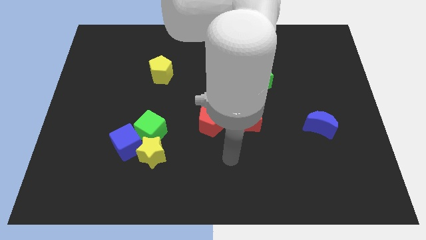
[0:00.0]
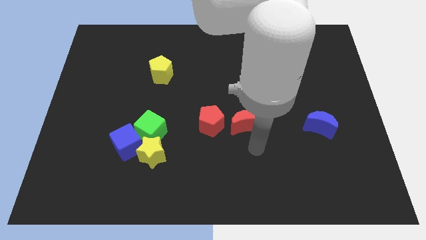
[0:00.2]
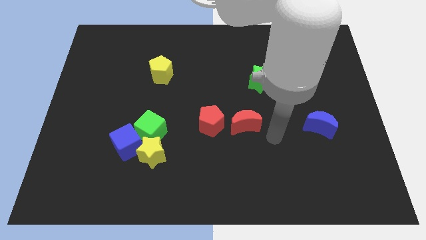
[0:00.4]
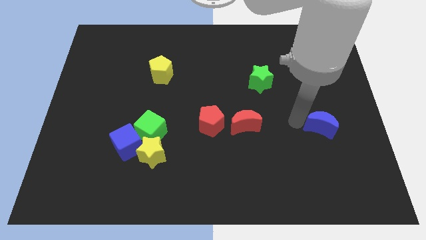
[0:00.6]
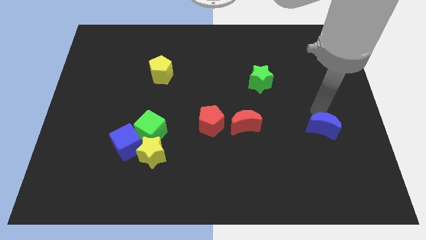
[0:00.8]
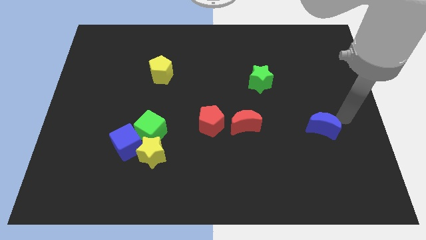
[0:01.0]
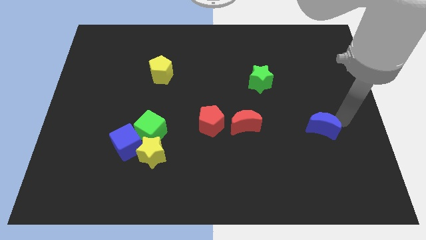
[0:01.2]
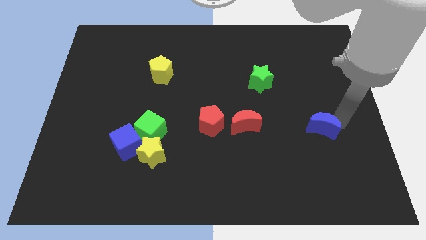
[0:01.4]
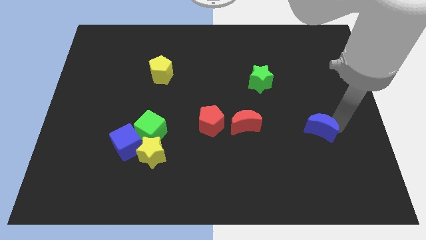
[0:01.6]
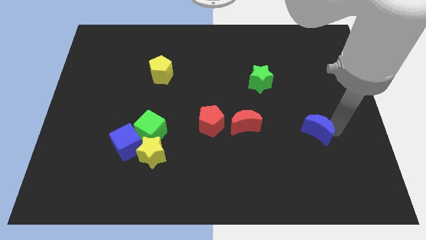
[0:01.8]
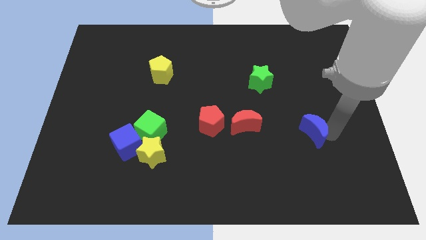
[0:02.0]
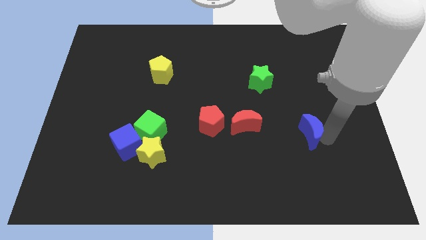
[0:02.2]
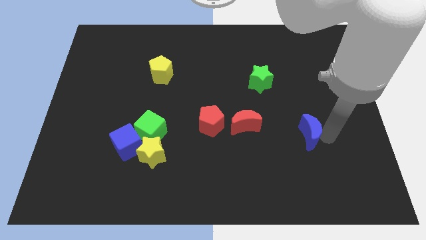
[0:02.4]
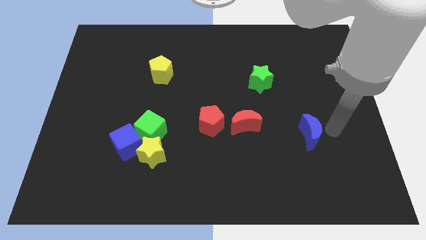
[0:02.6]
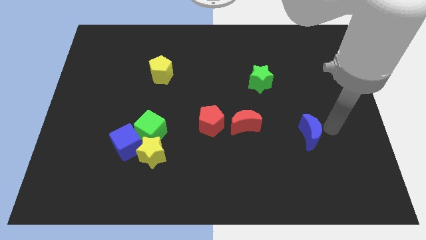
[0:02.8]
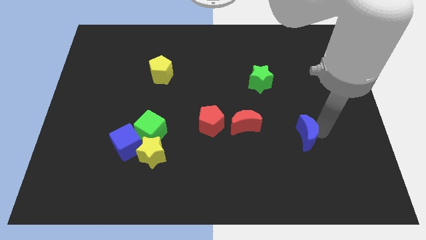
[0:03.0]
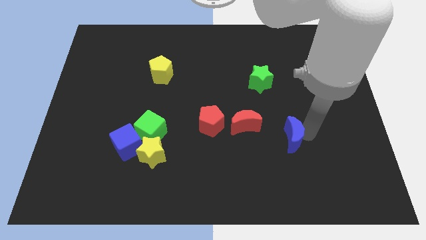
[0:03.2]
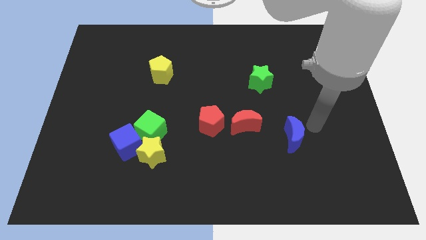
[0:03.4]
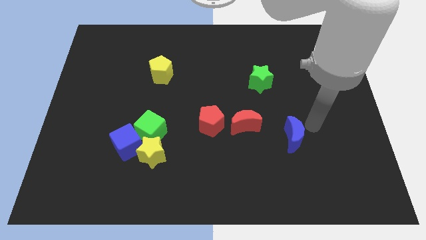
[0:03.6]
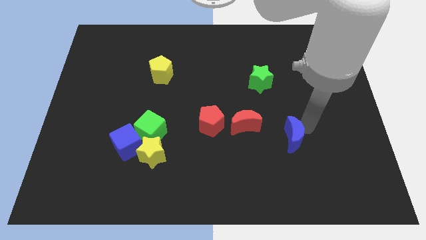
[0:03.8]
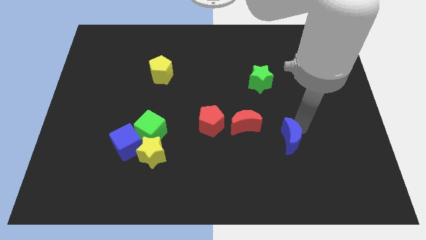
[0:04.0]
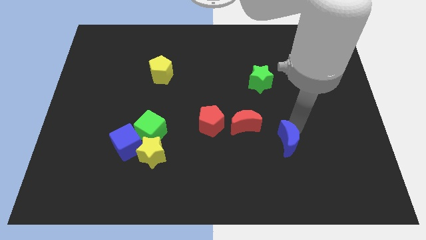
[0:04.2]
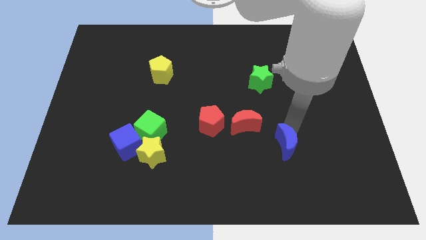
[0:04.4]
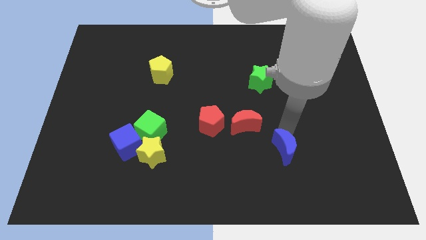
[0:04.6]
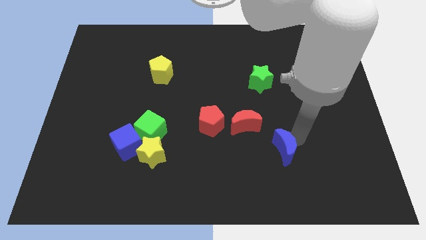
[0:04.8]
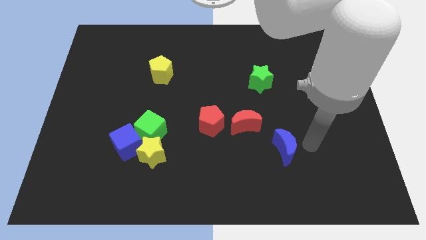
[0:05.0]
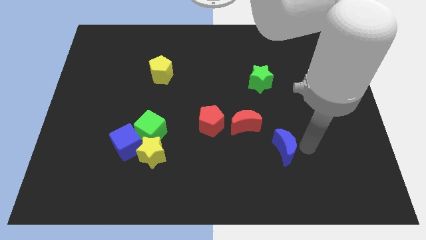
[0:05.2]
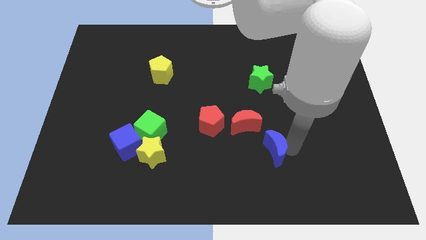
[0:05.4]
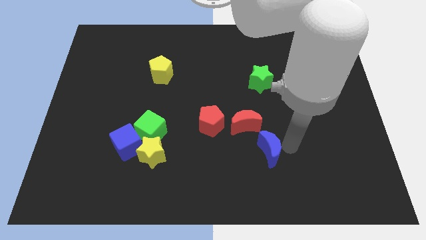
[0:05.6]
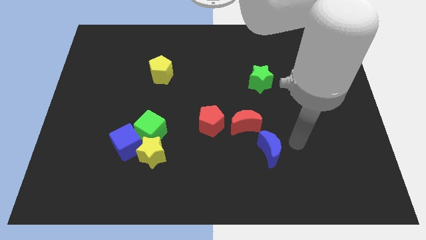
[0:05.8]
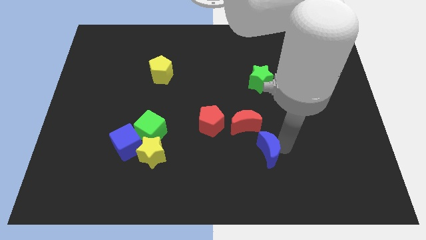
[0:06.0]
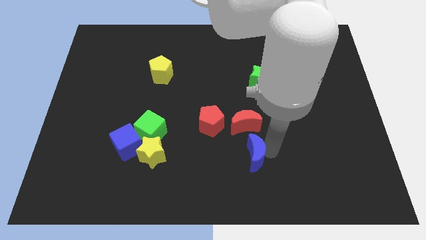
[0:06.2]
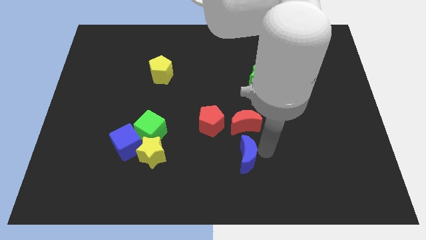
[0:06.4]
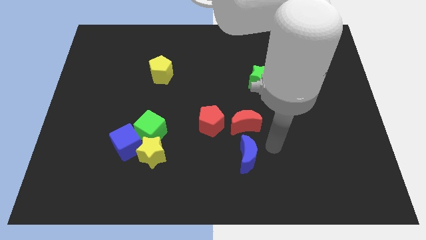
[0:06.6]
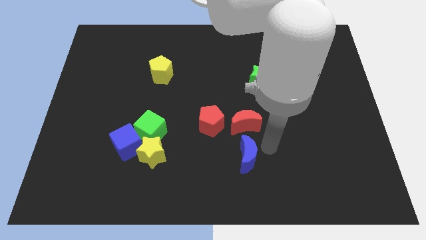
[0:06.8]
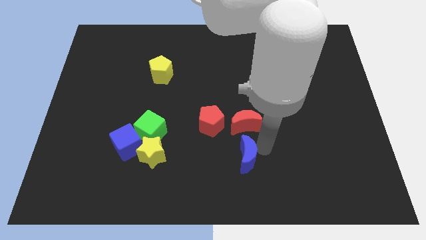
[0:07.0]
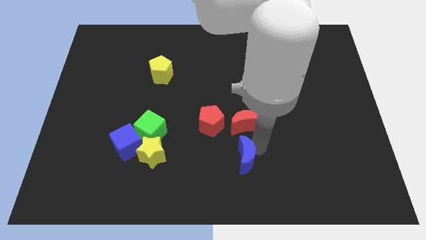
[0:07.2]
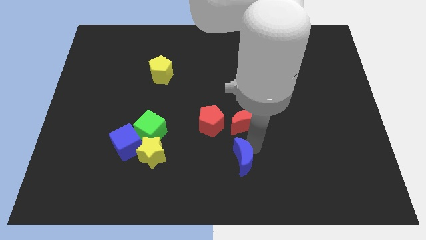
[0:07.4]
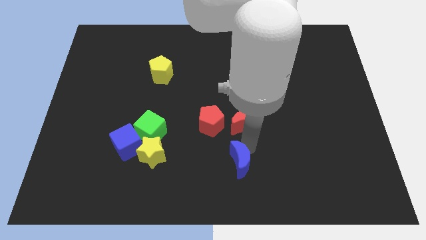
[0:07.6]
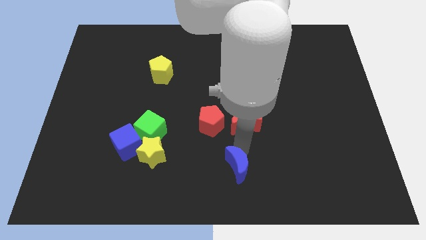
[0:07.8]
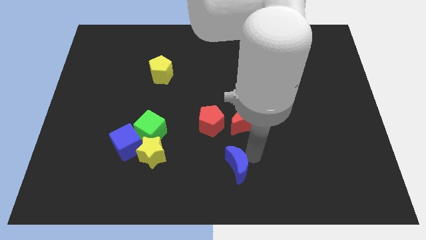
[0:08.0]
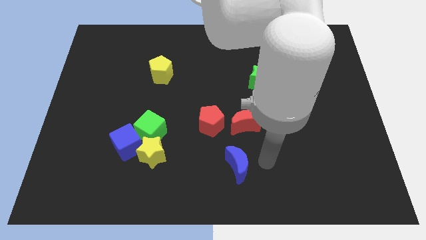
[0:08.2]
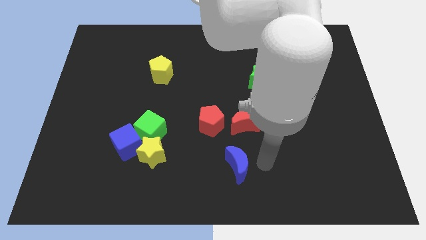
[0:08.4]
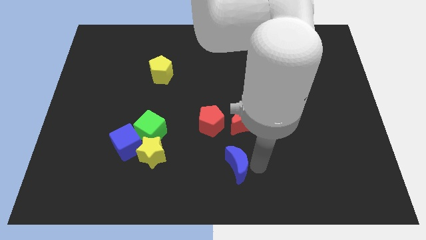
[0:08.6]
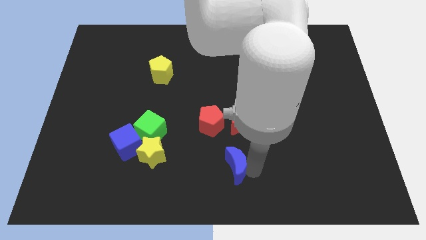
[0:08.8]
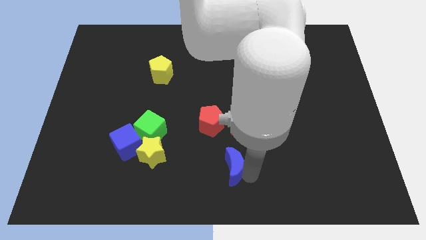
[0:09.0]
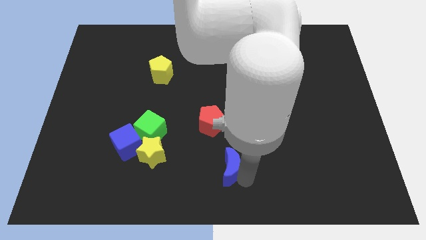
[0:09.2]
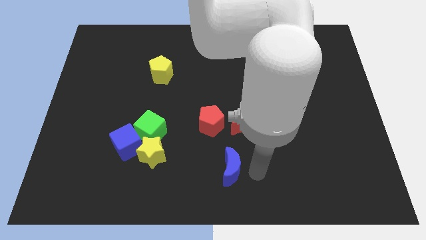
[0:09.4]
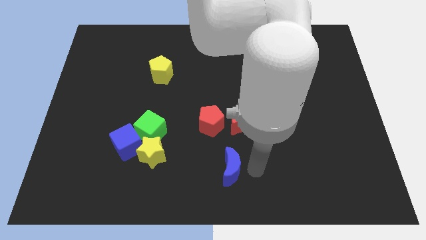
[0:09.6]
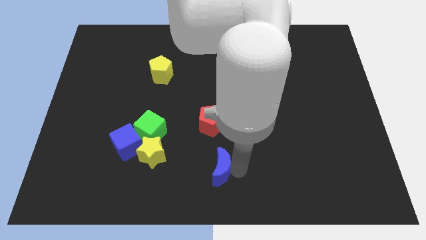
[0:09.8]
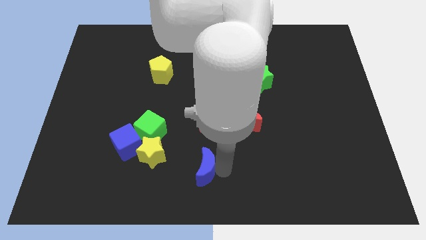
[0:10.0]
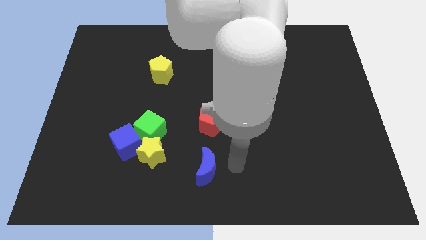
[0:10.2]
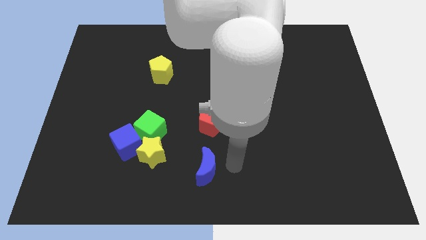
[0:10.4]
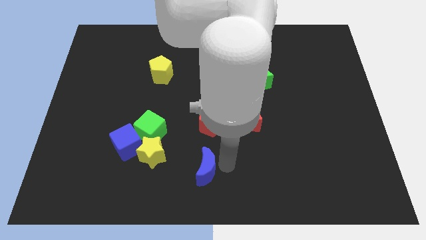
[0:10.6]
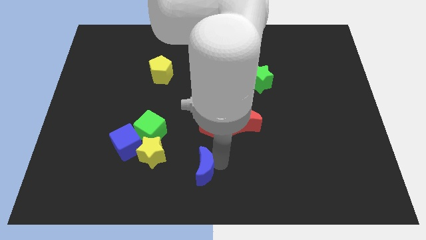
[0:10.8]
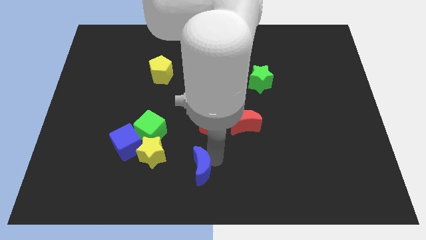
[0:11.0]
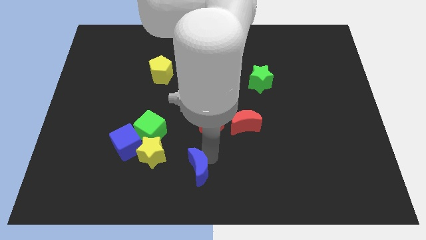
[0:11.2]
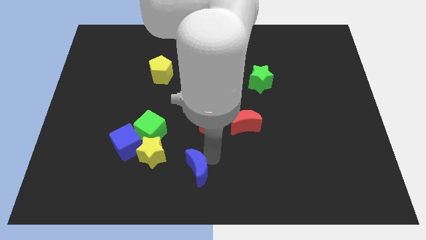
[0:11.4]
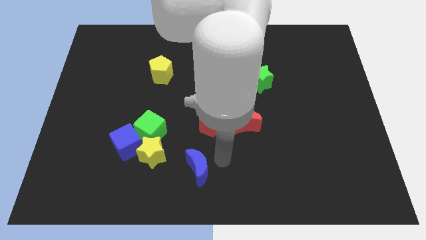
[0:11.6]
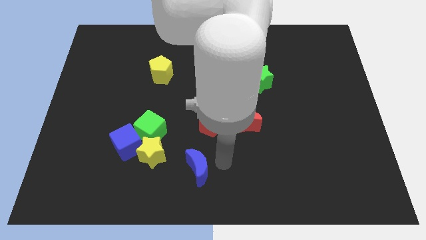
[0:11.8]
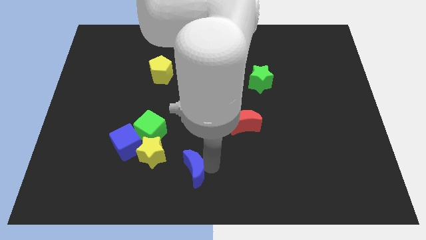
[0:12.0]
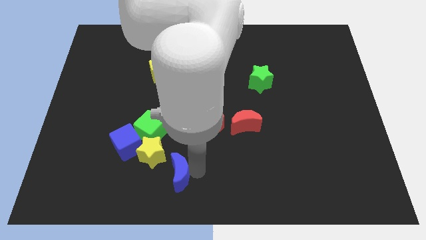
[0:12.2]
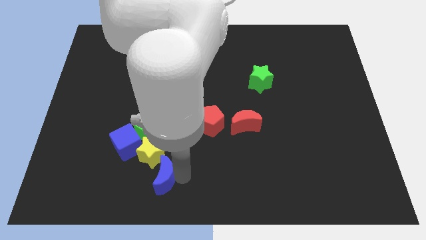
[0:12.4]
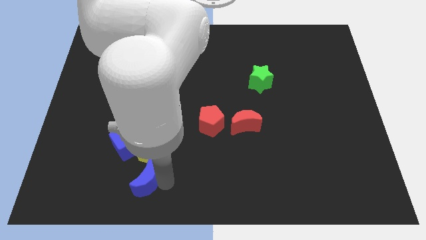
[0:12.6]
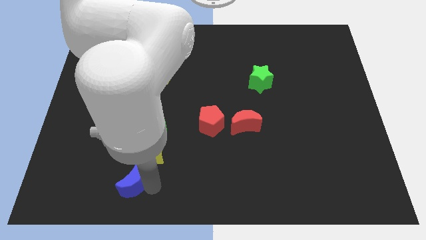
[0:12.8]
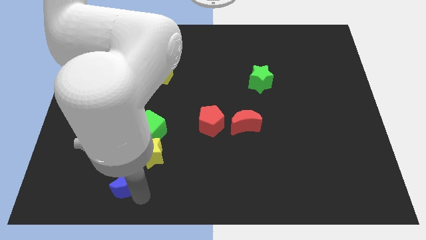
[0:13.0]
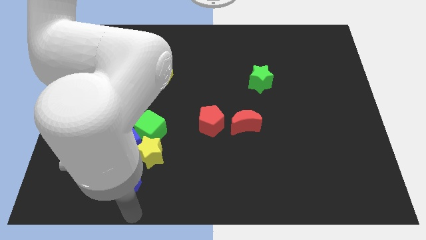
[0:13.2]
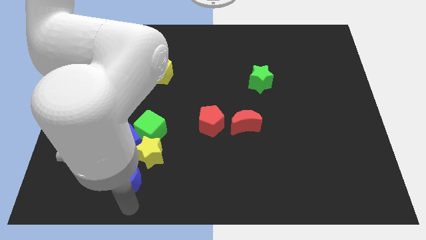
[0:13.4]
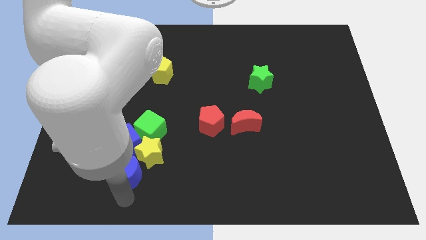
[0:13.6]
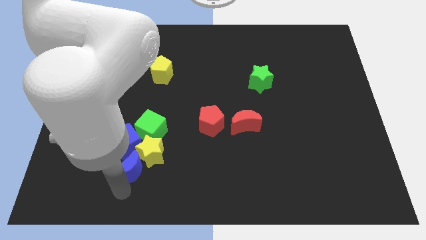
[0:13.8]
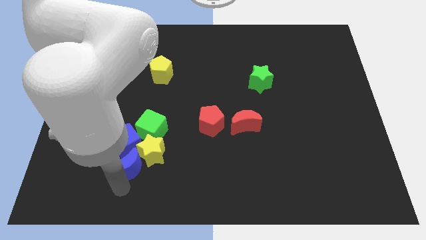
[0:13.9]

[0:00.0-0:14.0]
slide the blue moon towards the blue cube

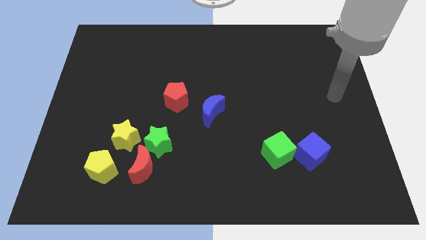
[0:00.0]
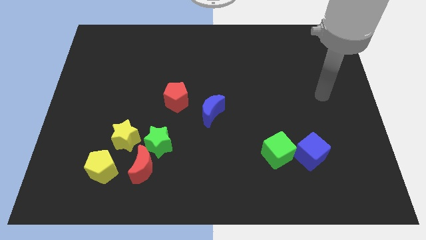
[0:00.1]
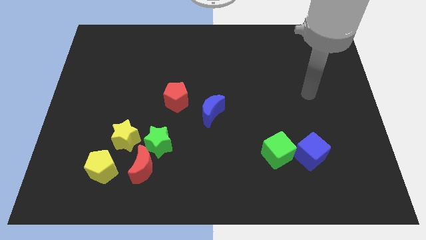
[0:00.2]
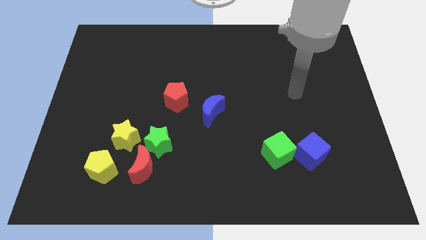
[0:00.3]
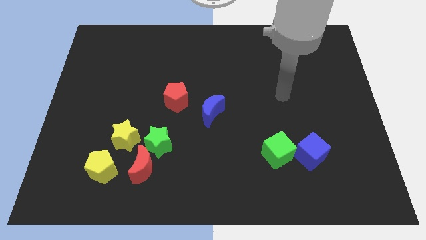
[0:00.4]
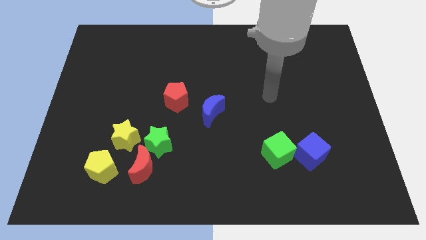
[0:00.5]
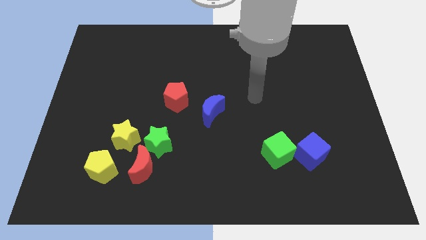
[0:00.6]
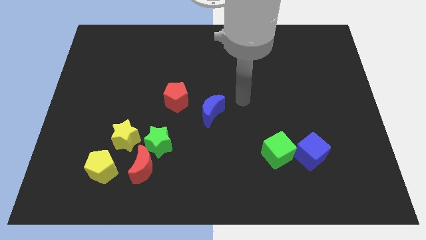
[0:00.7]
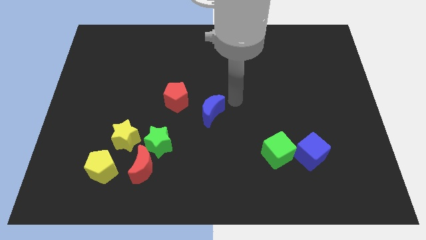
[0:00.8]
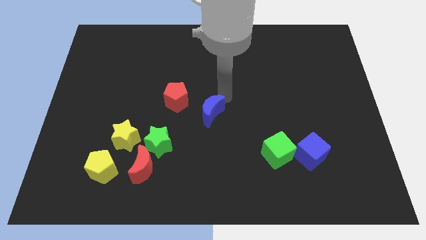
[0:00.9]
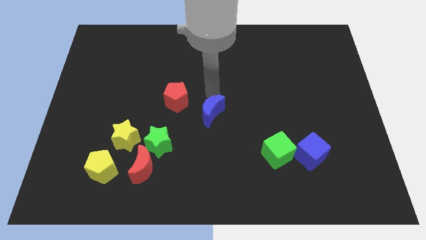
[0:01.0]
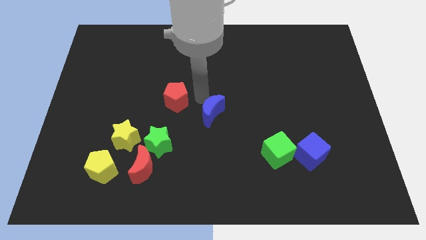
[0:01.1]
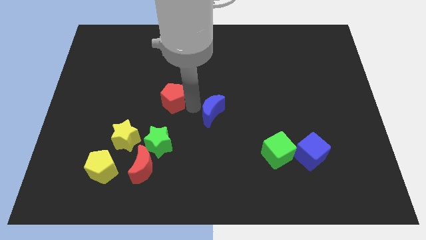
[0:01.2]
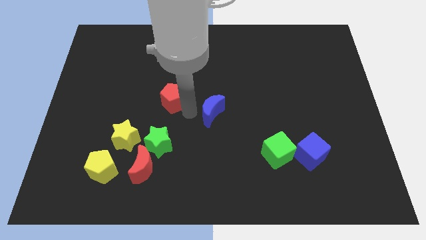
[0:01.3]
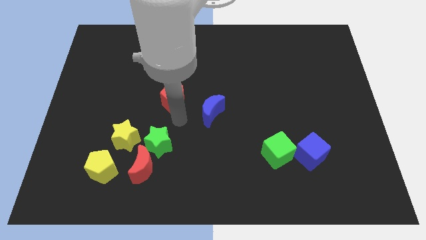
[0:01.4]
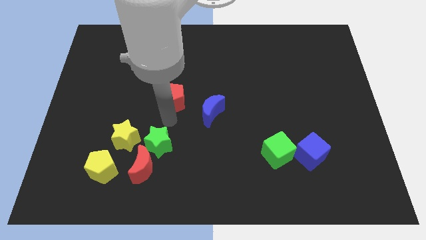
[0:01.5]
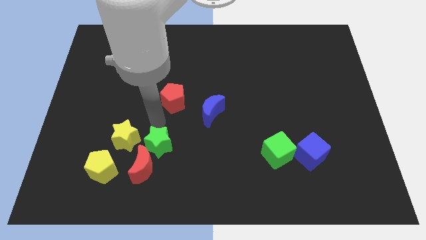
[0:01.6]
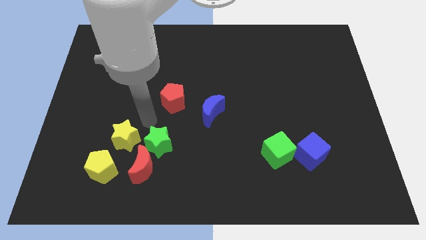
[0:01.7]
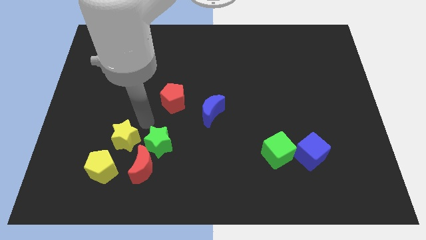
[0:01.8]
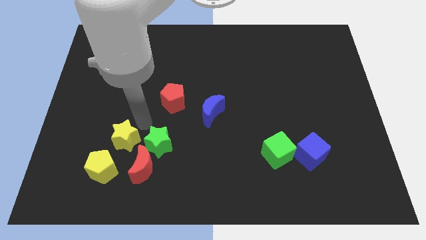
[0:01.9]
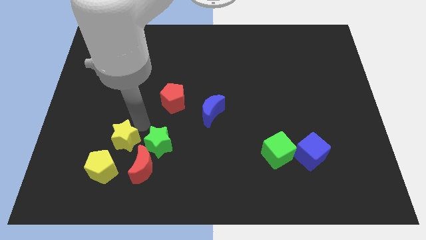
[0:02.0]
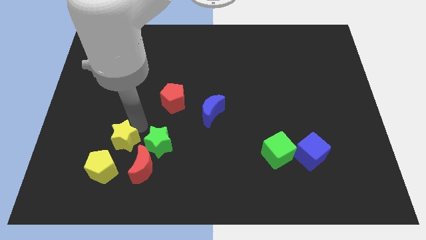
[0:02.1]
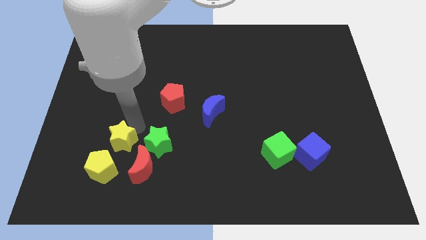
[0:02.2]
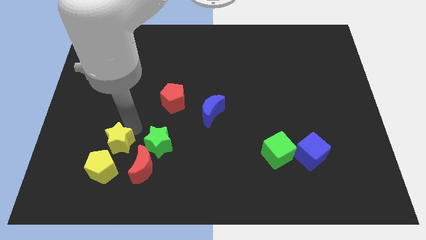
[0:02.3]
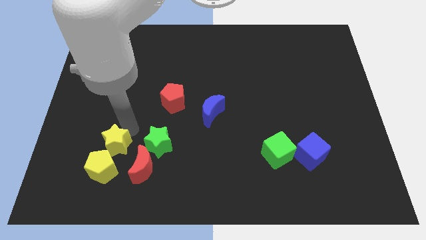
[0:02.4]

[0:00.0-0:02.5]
push the yellow star towards the yellow pentagon
